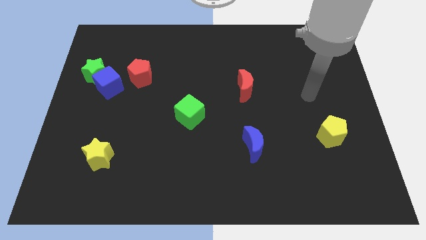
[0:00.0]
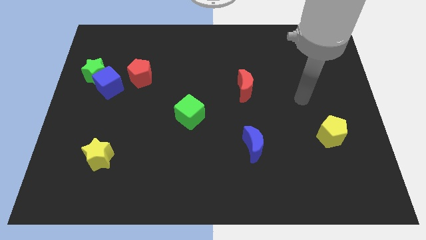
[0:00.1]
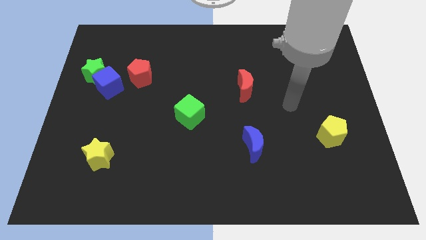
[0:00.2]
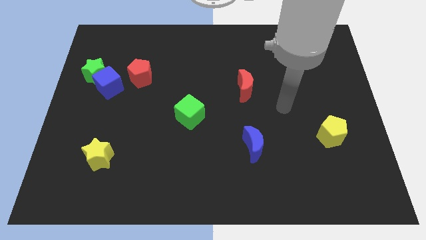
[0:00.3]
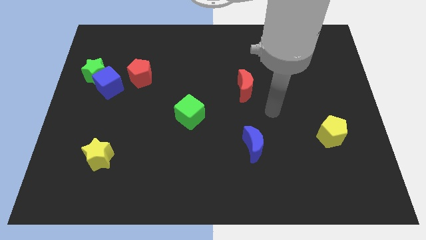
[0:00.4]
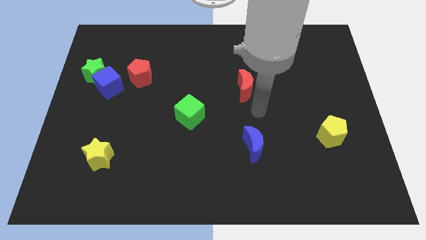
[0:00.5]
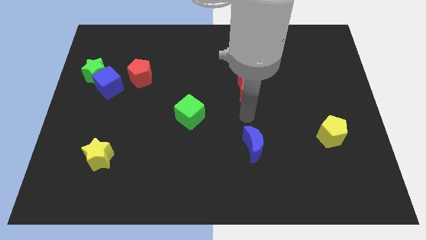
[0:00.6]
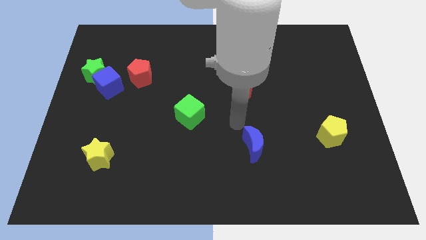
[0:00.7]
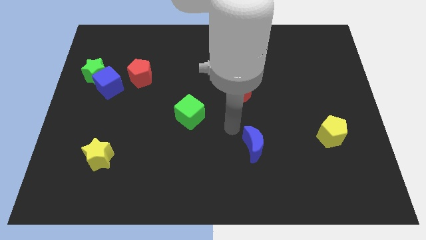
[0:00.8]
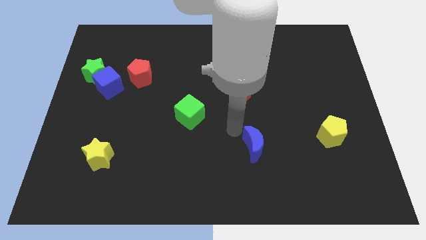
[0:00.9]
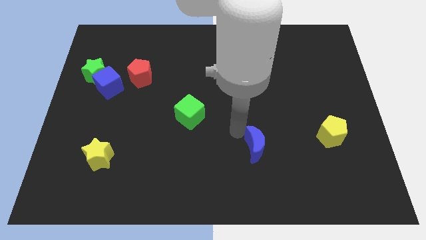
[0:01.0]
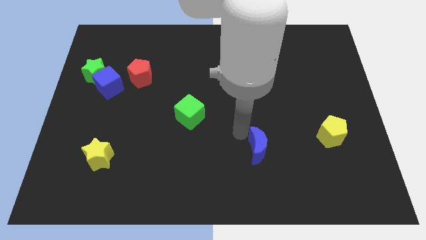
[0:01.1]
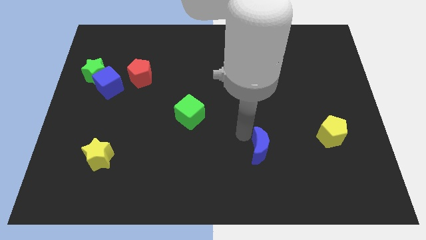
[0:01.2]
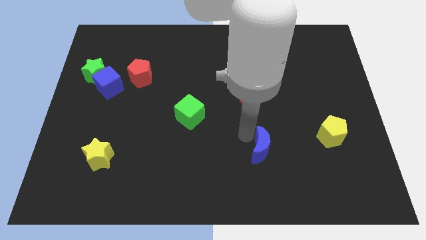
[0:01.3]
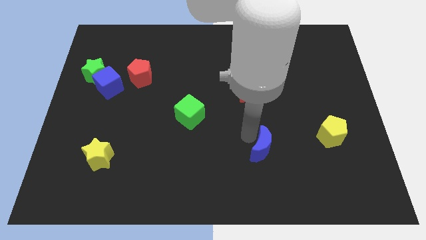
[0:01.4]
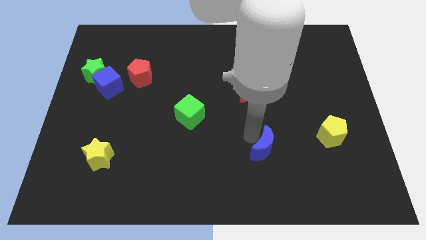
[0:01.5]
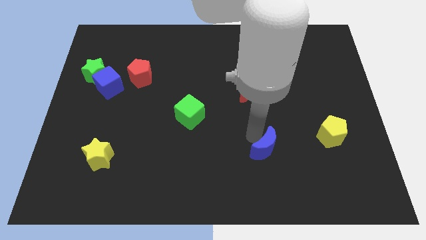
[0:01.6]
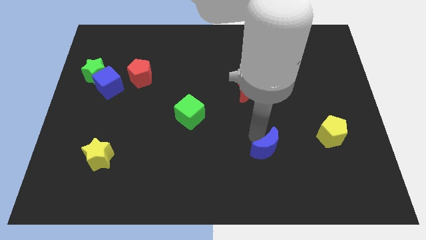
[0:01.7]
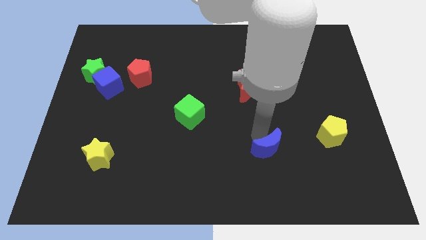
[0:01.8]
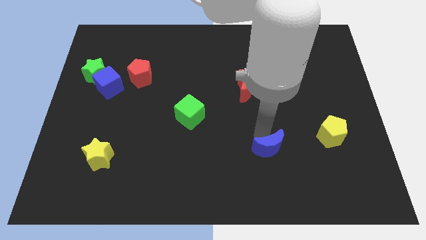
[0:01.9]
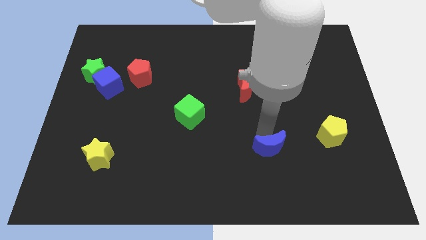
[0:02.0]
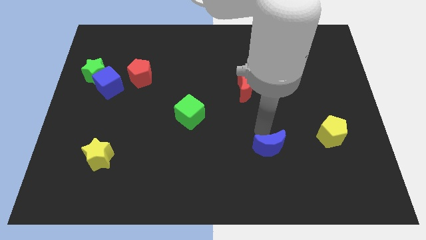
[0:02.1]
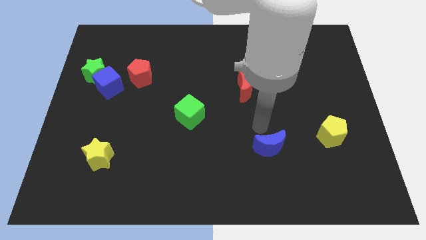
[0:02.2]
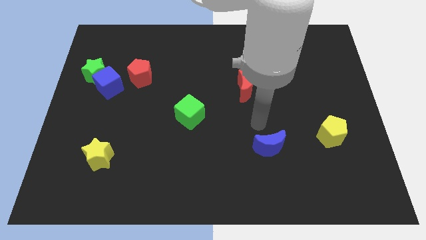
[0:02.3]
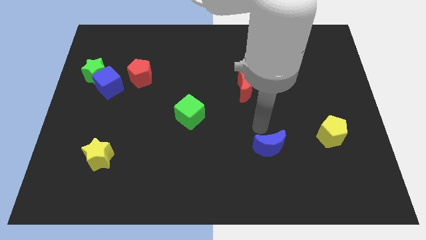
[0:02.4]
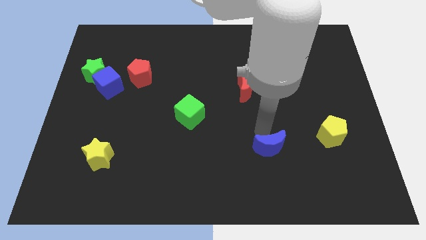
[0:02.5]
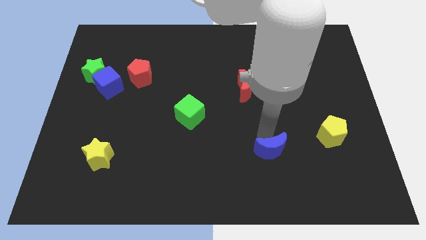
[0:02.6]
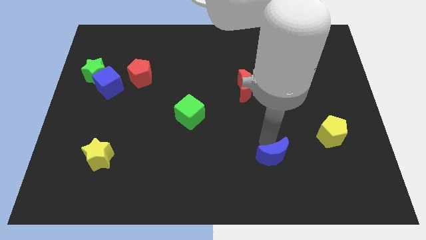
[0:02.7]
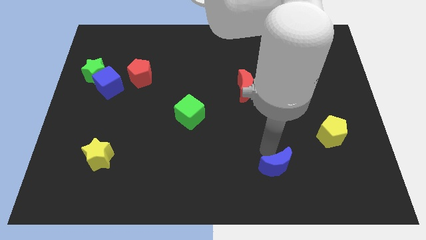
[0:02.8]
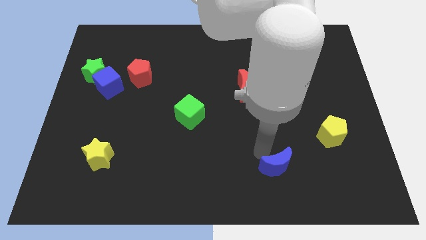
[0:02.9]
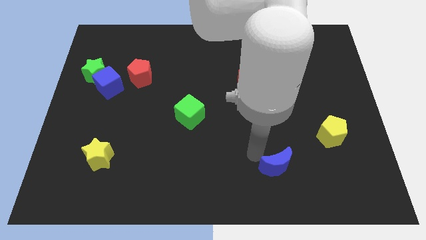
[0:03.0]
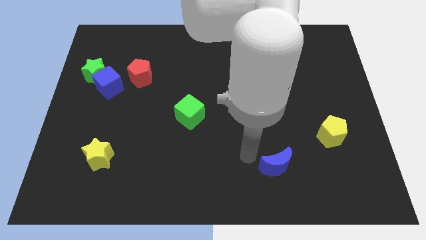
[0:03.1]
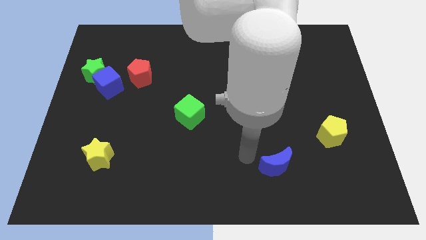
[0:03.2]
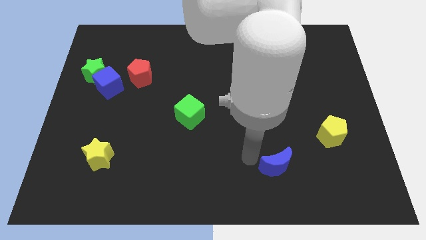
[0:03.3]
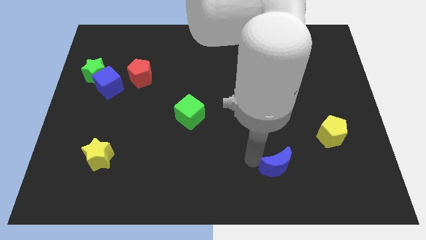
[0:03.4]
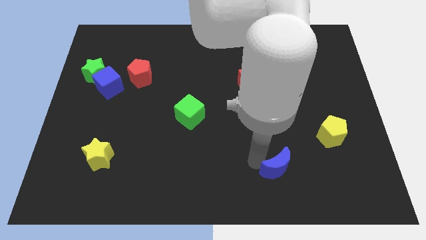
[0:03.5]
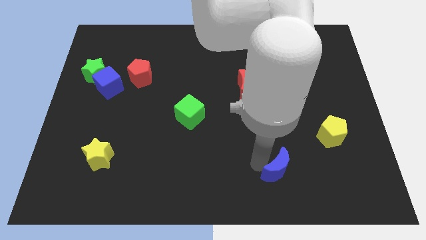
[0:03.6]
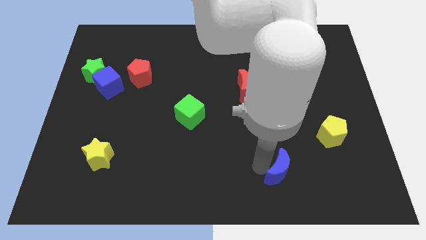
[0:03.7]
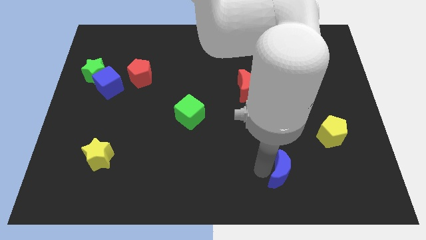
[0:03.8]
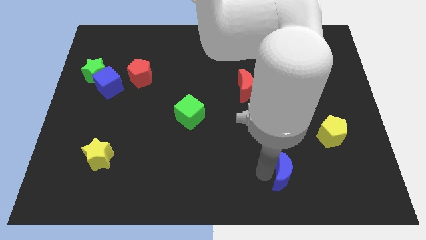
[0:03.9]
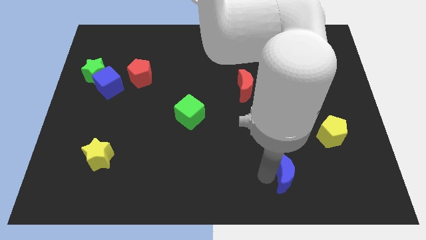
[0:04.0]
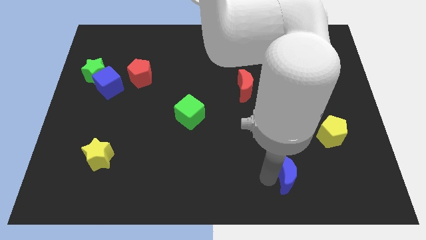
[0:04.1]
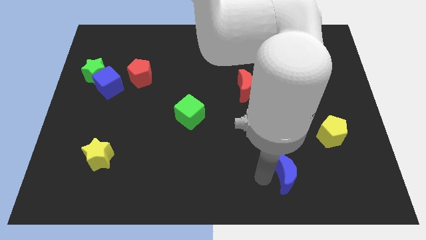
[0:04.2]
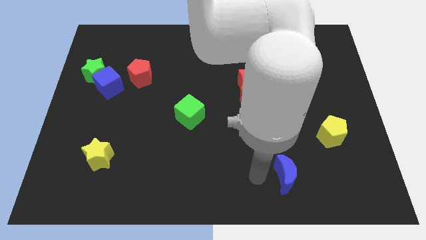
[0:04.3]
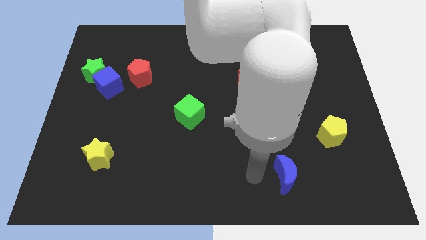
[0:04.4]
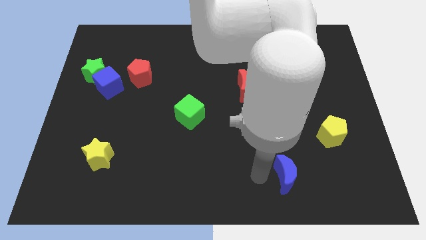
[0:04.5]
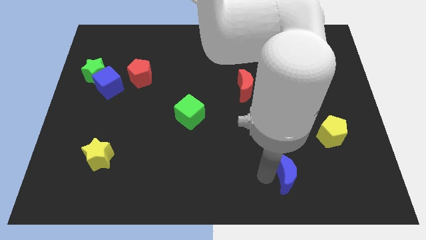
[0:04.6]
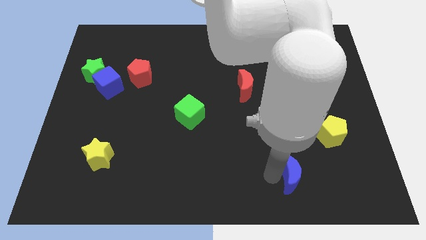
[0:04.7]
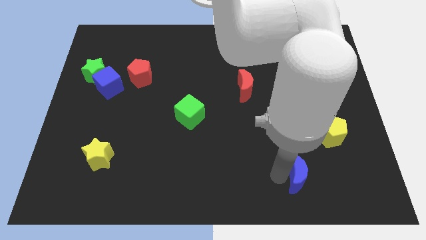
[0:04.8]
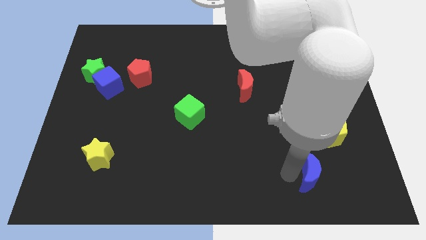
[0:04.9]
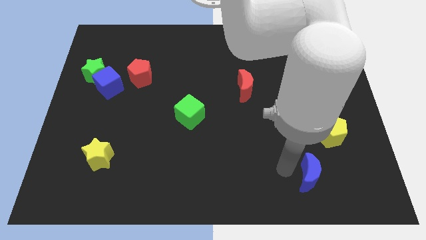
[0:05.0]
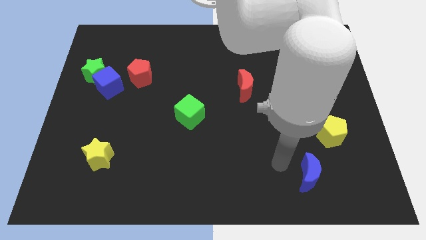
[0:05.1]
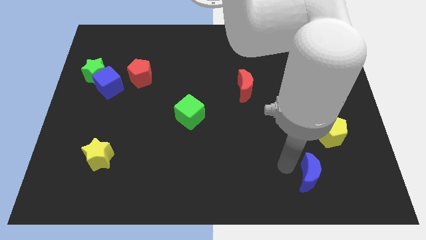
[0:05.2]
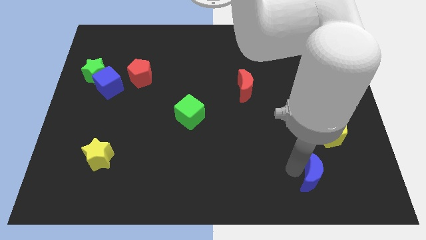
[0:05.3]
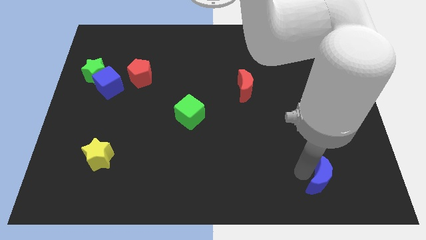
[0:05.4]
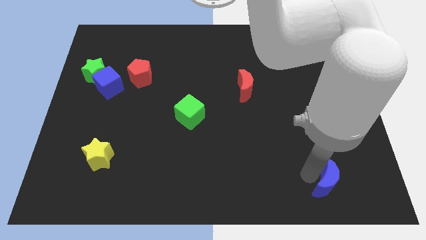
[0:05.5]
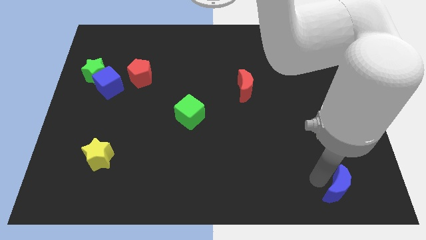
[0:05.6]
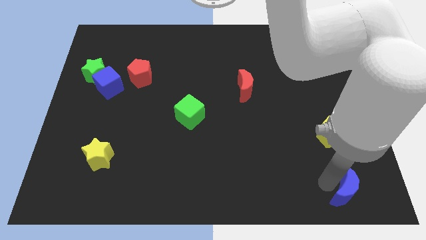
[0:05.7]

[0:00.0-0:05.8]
slide the blue moon to the lower right corner

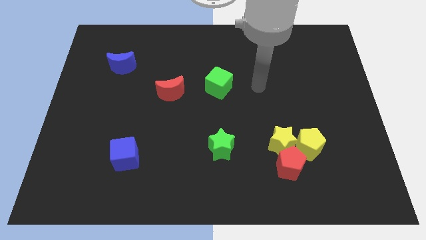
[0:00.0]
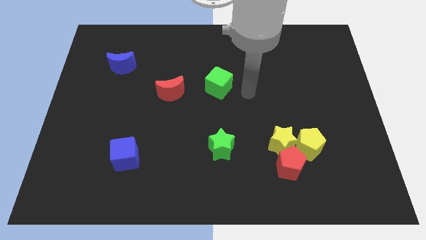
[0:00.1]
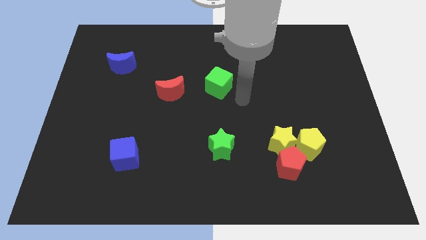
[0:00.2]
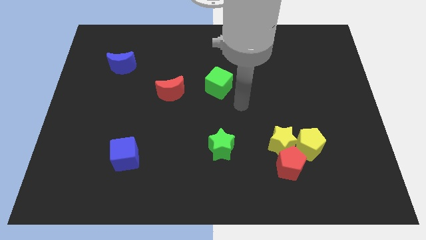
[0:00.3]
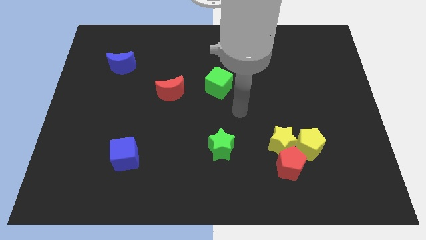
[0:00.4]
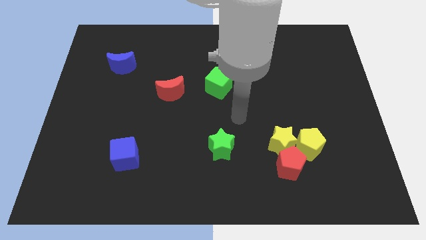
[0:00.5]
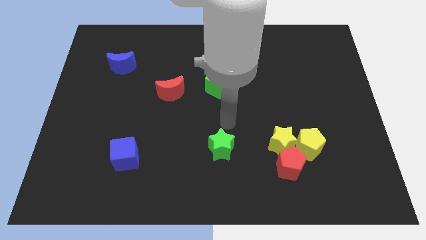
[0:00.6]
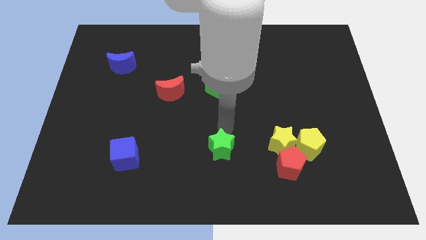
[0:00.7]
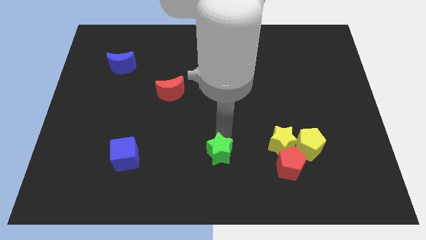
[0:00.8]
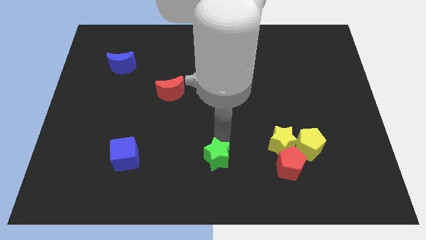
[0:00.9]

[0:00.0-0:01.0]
slide the green star to the bottom

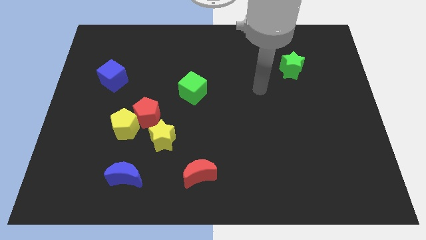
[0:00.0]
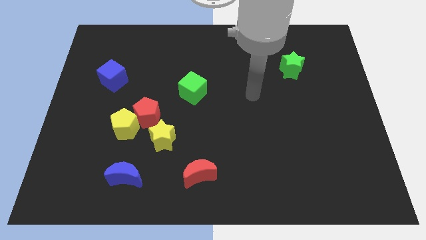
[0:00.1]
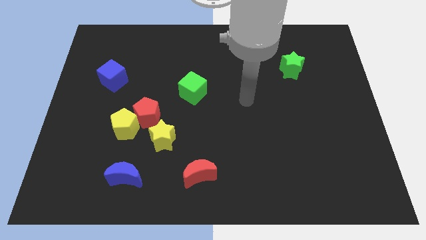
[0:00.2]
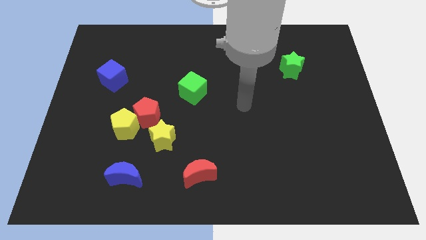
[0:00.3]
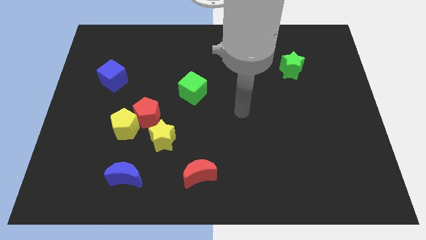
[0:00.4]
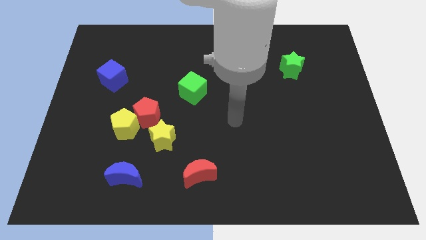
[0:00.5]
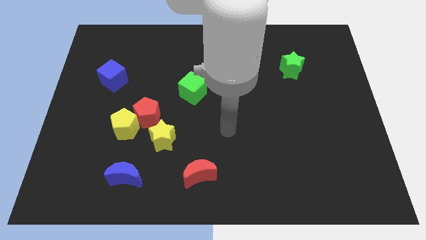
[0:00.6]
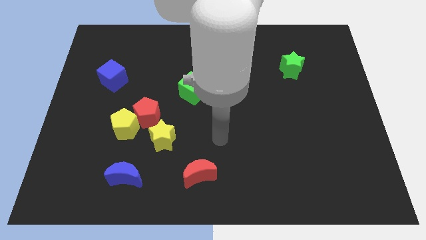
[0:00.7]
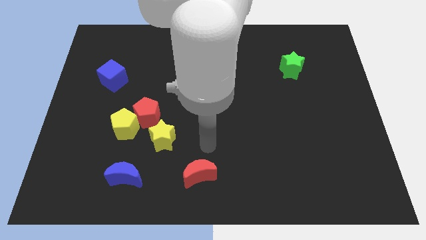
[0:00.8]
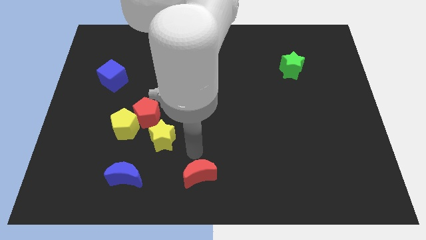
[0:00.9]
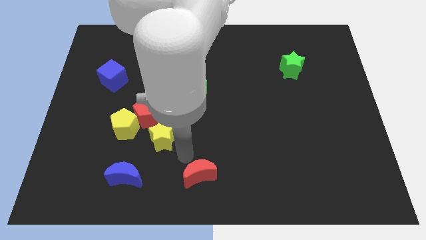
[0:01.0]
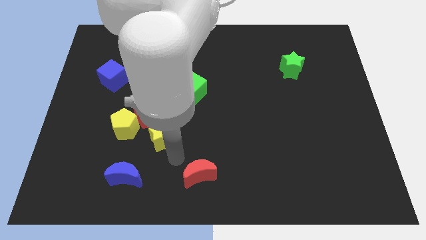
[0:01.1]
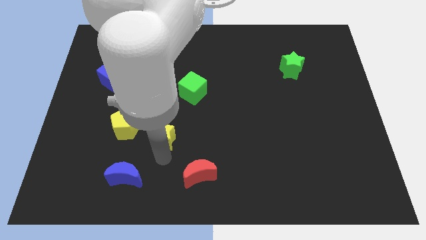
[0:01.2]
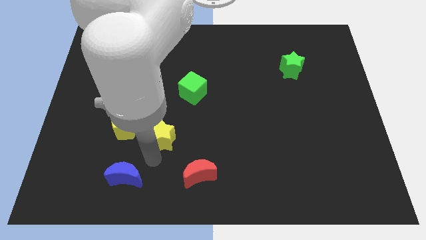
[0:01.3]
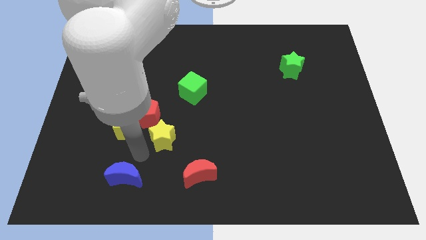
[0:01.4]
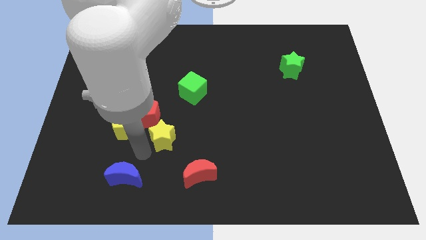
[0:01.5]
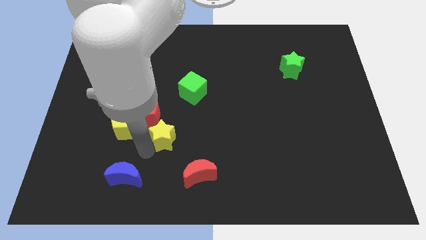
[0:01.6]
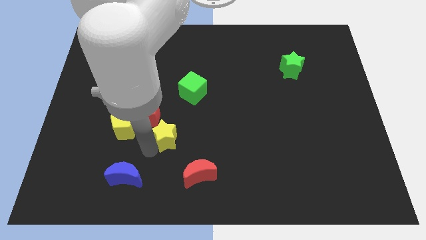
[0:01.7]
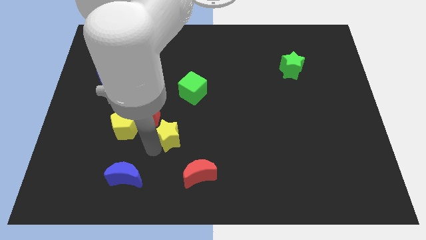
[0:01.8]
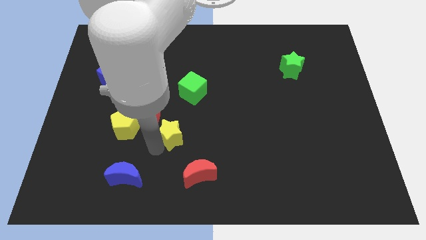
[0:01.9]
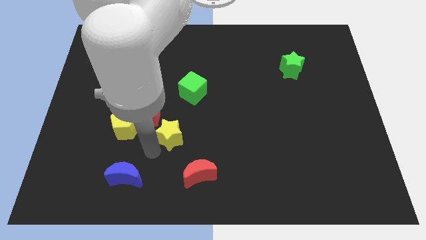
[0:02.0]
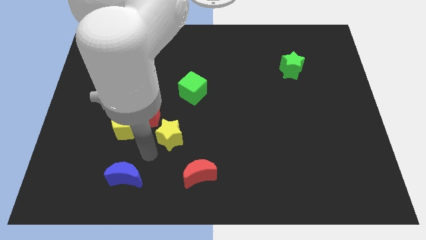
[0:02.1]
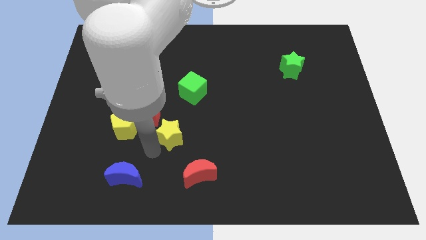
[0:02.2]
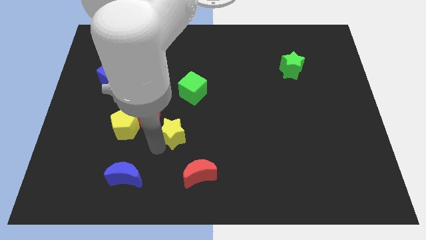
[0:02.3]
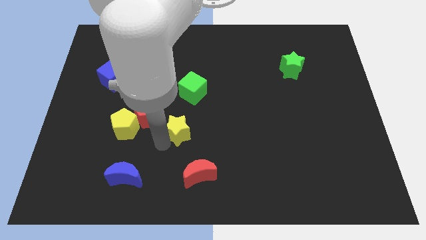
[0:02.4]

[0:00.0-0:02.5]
slide the yellow star to the middle of the board
